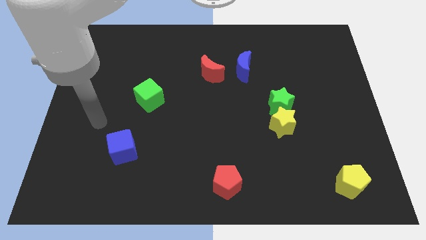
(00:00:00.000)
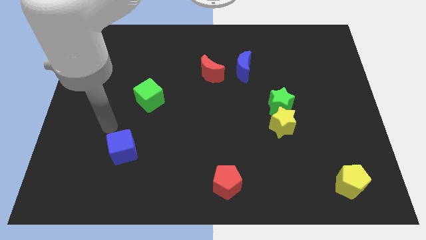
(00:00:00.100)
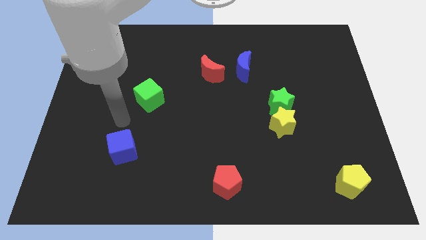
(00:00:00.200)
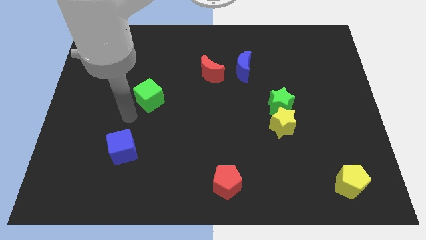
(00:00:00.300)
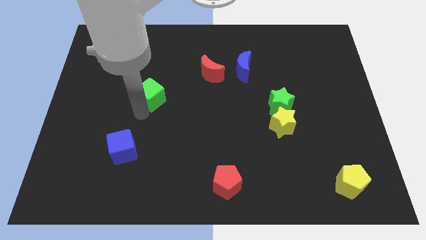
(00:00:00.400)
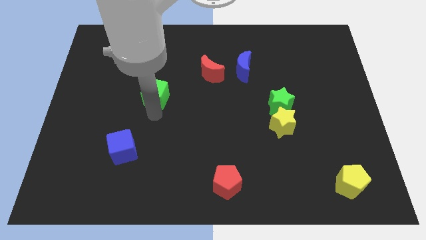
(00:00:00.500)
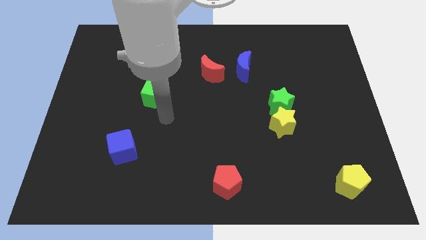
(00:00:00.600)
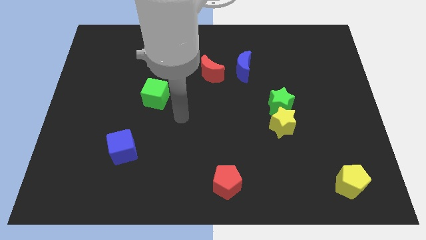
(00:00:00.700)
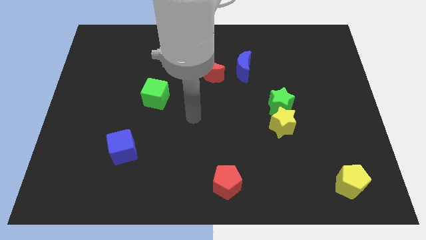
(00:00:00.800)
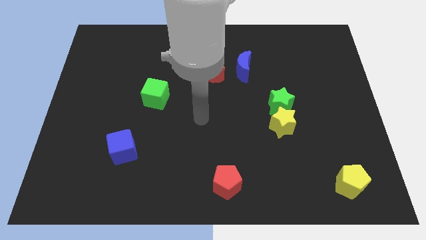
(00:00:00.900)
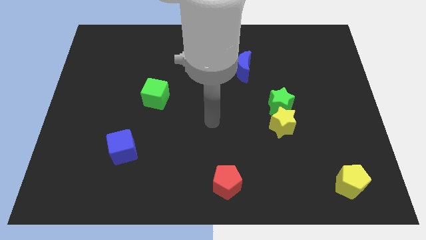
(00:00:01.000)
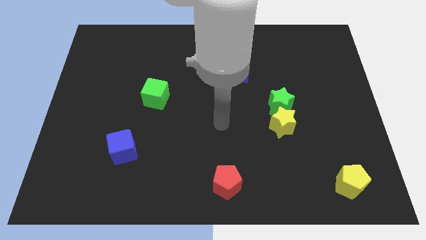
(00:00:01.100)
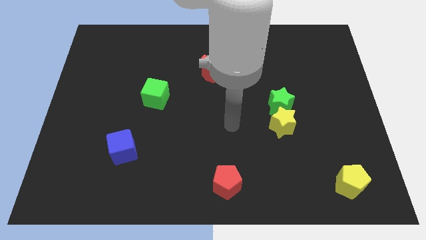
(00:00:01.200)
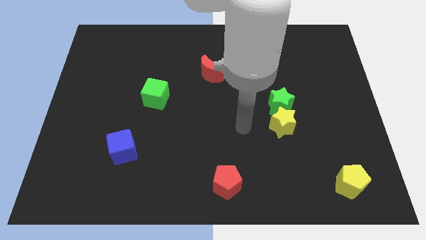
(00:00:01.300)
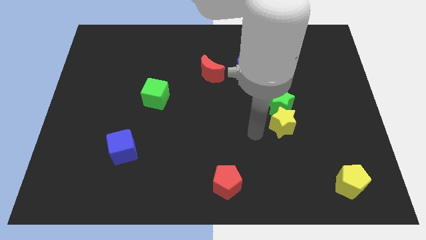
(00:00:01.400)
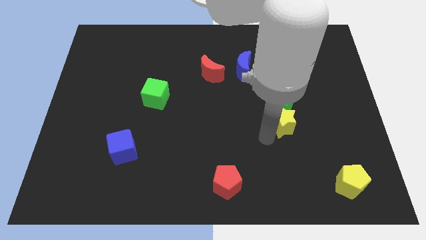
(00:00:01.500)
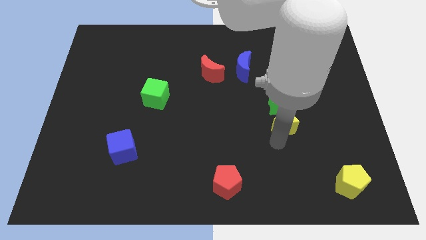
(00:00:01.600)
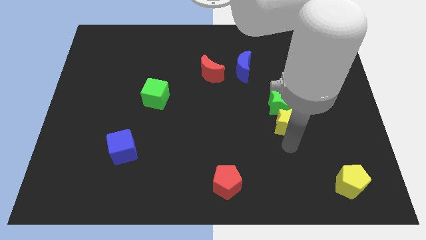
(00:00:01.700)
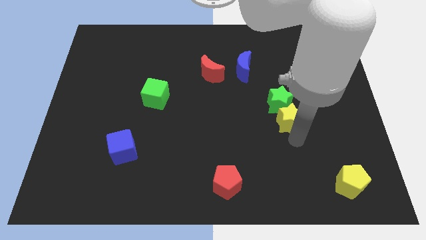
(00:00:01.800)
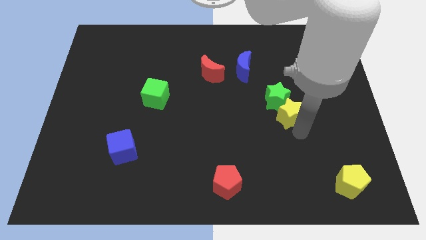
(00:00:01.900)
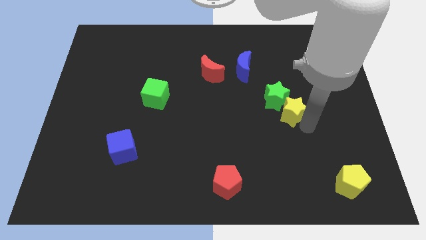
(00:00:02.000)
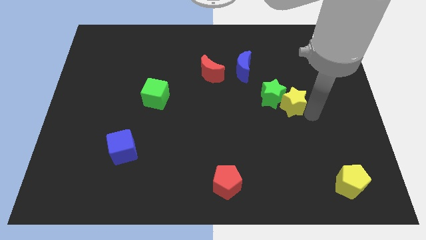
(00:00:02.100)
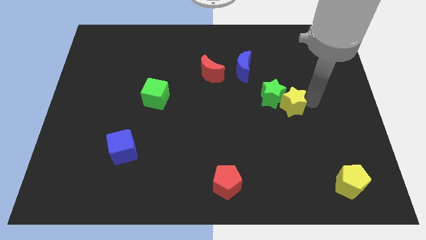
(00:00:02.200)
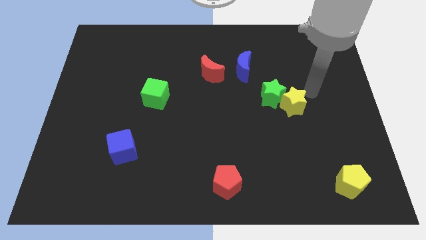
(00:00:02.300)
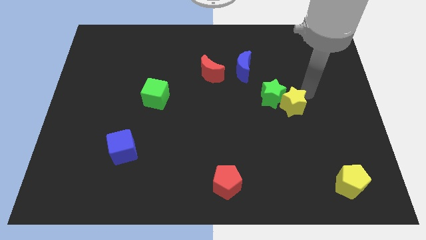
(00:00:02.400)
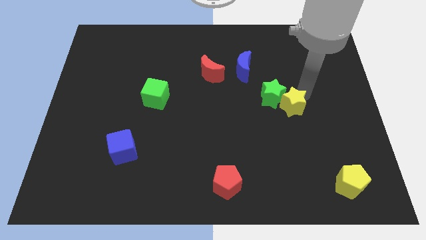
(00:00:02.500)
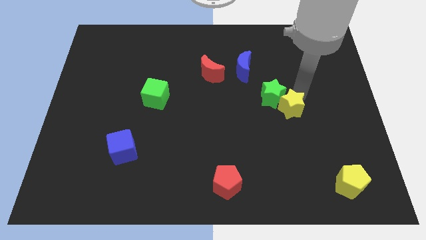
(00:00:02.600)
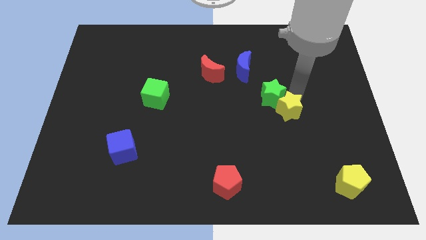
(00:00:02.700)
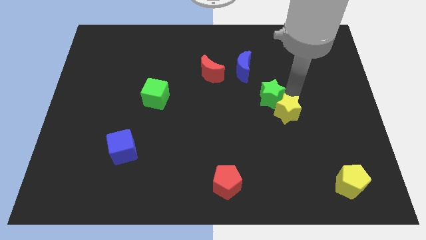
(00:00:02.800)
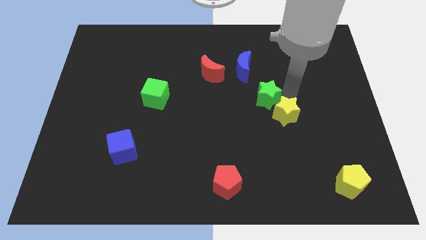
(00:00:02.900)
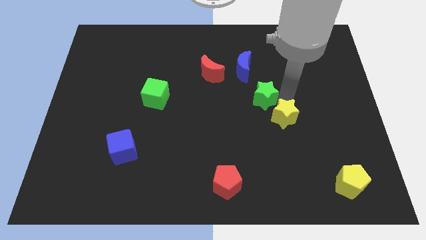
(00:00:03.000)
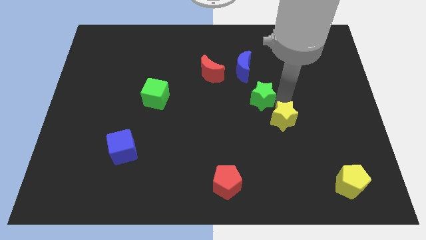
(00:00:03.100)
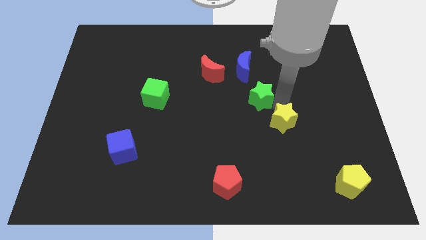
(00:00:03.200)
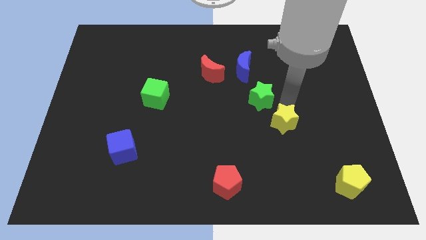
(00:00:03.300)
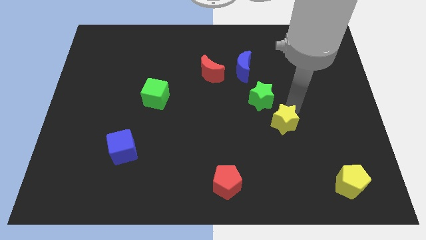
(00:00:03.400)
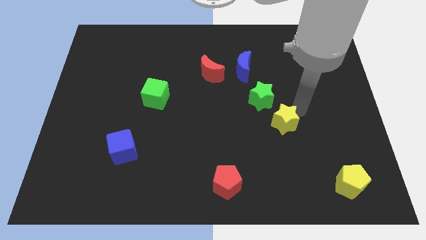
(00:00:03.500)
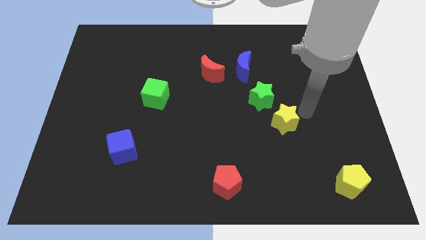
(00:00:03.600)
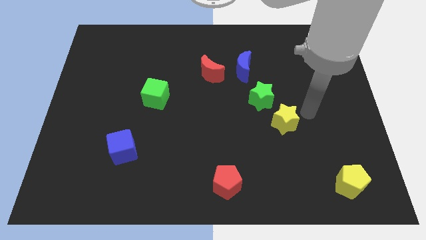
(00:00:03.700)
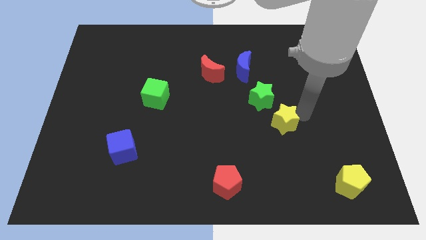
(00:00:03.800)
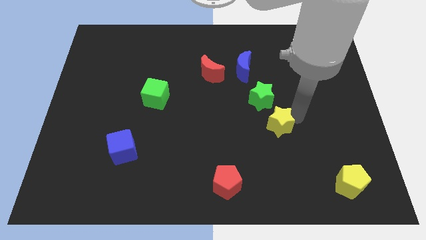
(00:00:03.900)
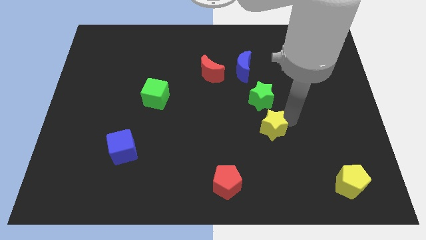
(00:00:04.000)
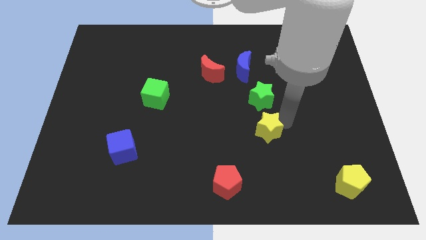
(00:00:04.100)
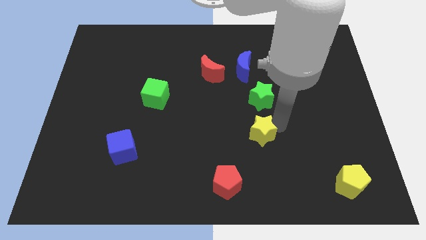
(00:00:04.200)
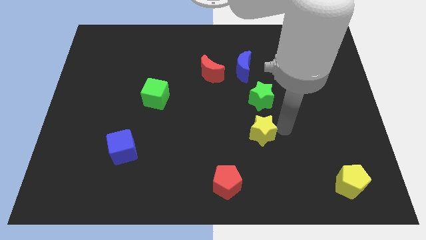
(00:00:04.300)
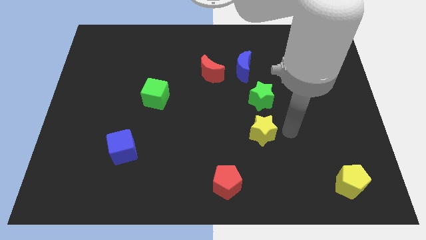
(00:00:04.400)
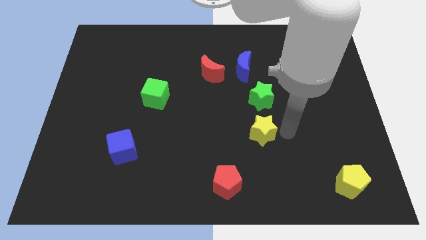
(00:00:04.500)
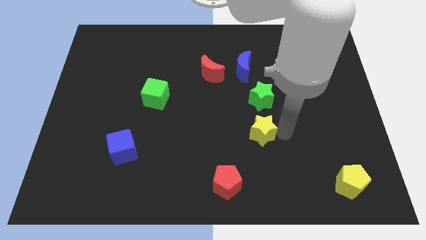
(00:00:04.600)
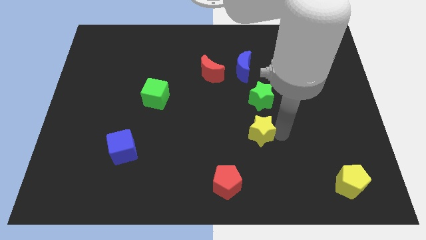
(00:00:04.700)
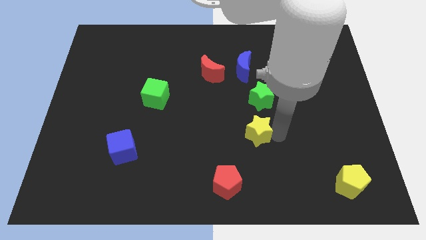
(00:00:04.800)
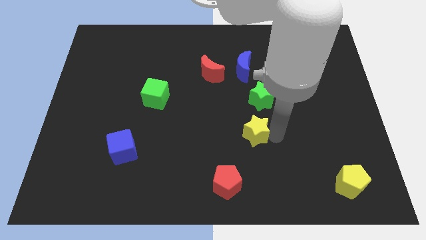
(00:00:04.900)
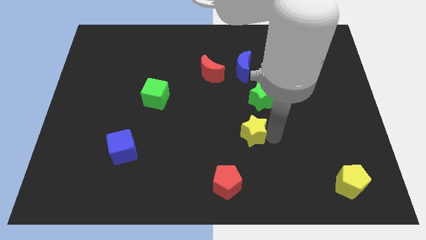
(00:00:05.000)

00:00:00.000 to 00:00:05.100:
slightly slide the yellow star to the left

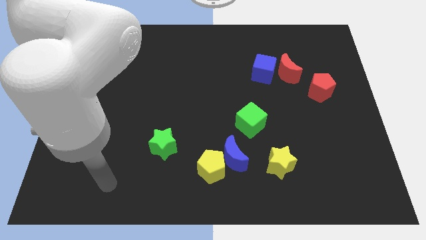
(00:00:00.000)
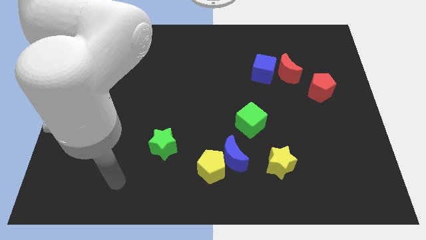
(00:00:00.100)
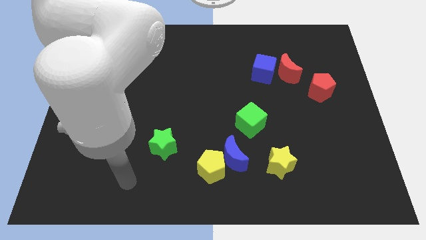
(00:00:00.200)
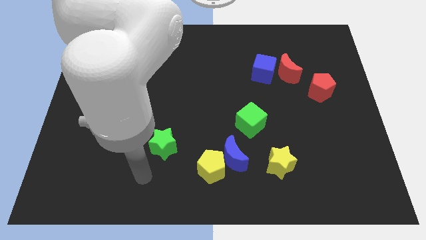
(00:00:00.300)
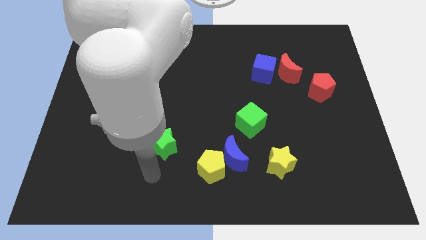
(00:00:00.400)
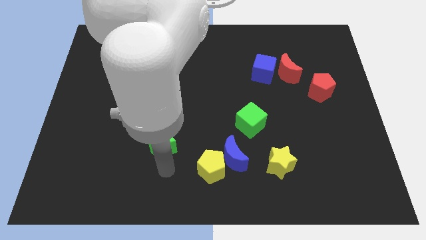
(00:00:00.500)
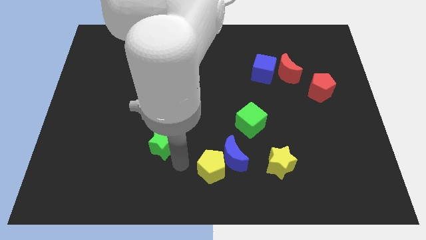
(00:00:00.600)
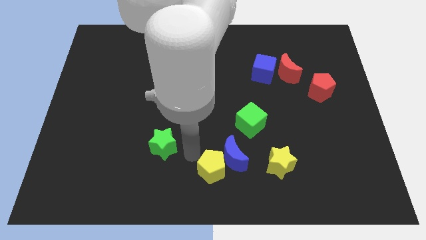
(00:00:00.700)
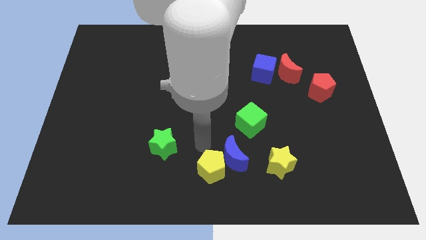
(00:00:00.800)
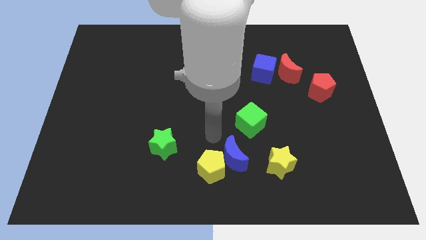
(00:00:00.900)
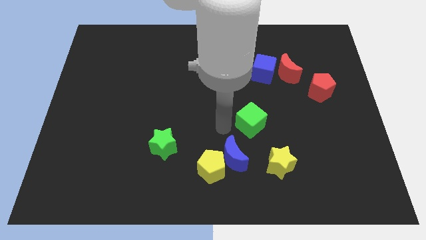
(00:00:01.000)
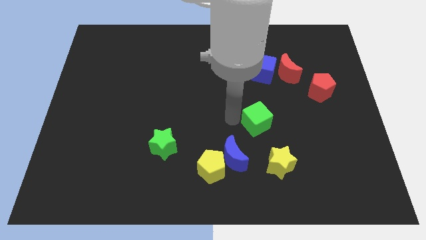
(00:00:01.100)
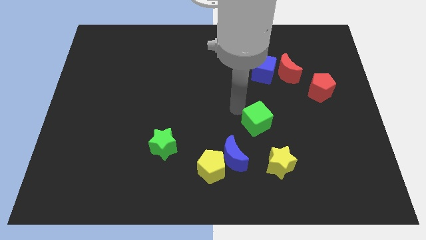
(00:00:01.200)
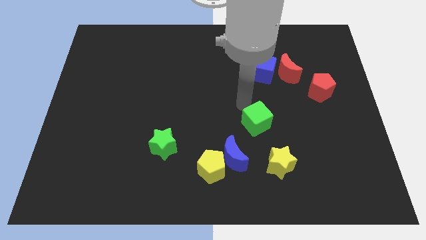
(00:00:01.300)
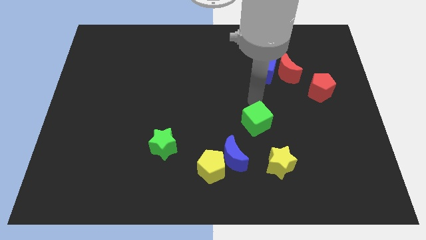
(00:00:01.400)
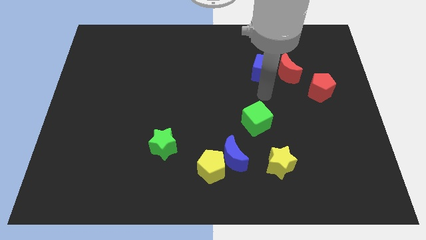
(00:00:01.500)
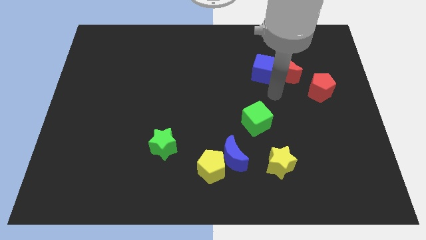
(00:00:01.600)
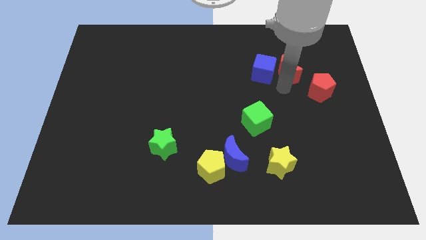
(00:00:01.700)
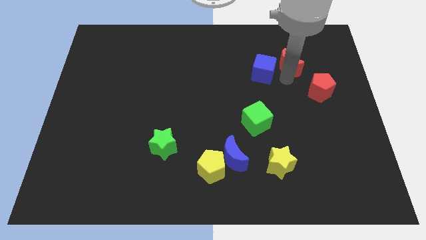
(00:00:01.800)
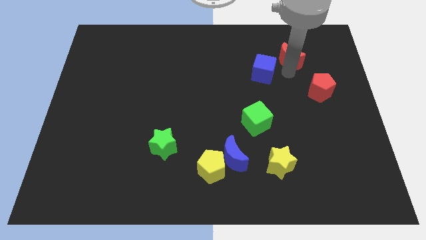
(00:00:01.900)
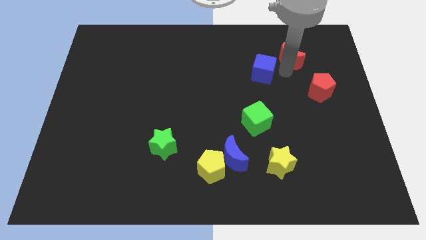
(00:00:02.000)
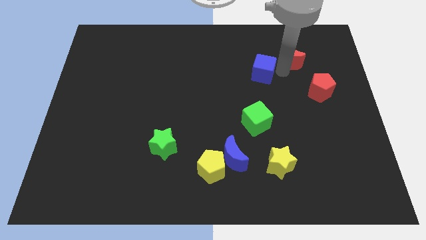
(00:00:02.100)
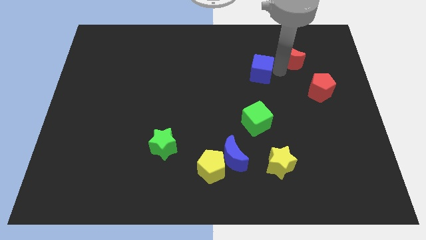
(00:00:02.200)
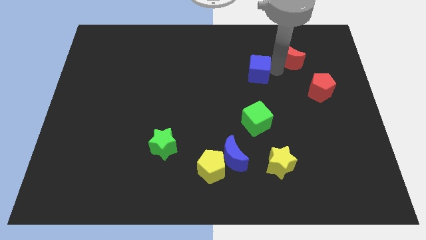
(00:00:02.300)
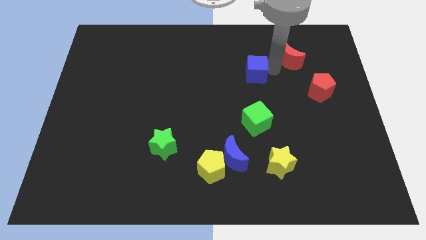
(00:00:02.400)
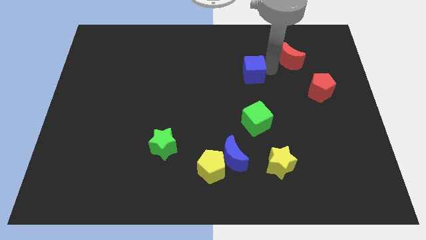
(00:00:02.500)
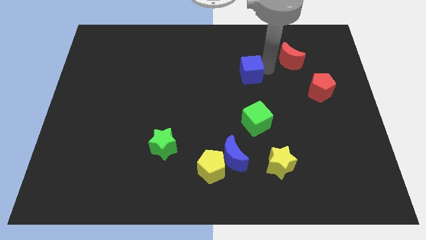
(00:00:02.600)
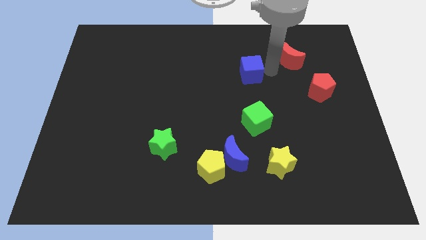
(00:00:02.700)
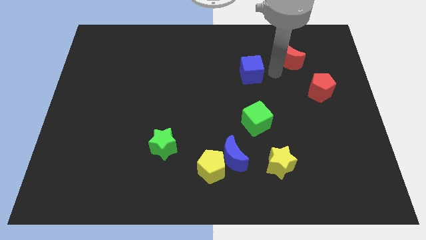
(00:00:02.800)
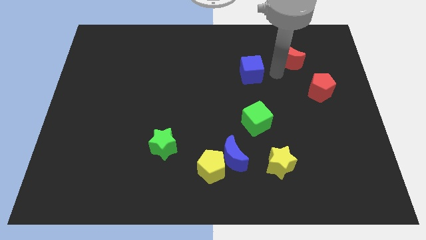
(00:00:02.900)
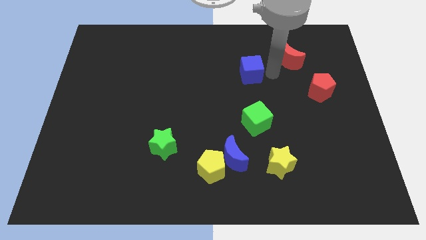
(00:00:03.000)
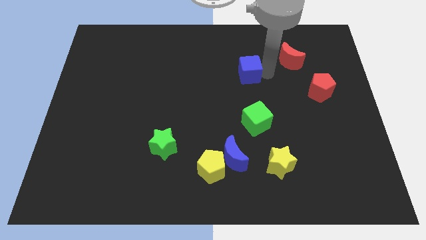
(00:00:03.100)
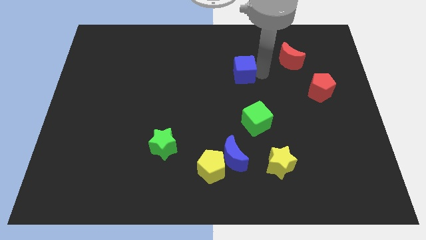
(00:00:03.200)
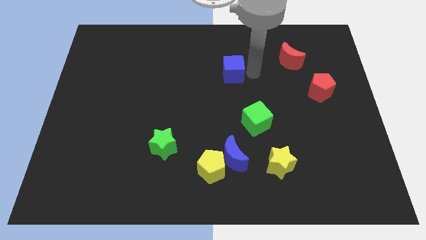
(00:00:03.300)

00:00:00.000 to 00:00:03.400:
push the blue cube slightly left
